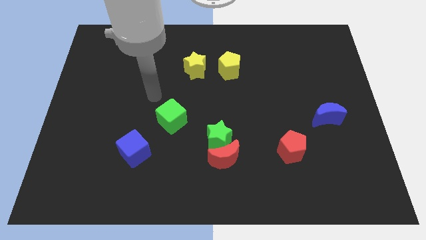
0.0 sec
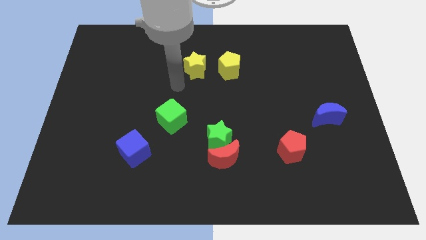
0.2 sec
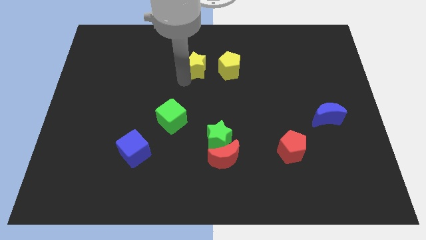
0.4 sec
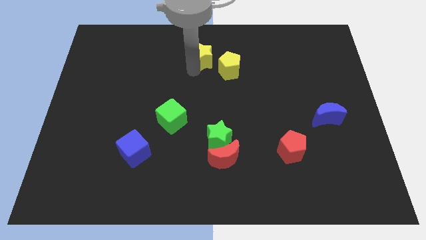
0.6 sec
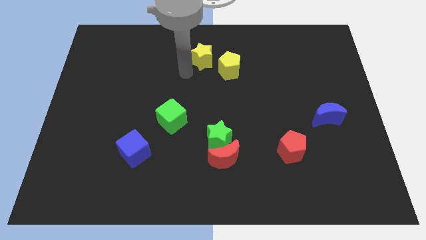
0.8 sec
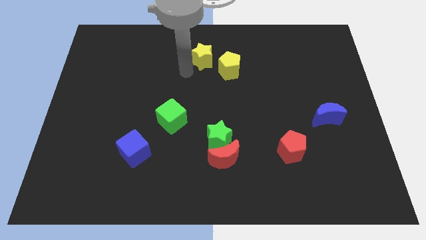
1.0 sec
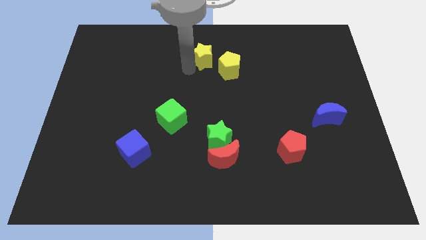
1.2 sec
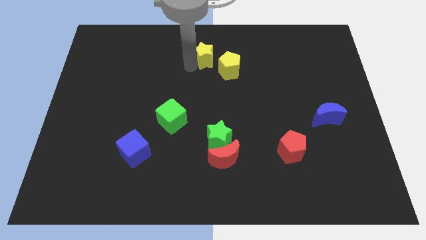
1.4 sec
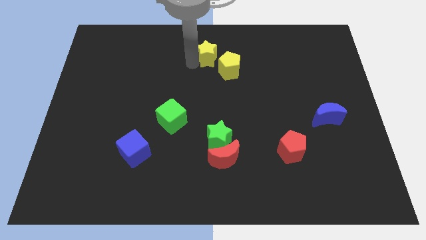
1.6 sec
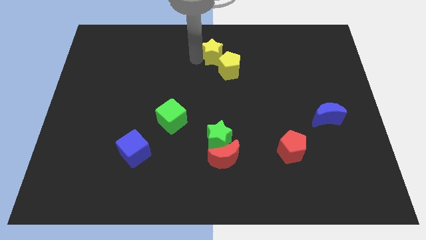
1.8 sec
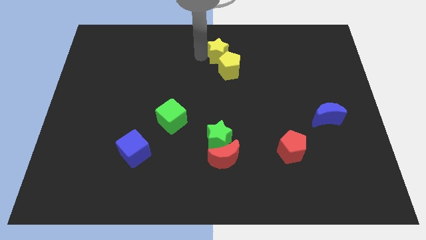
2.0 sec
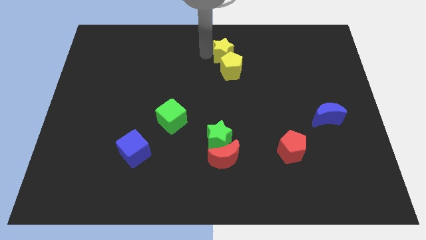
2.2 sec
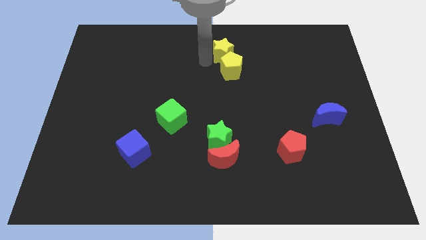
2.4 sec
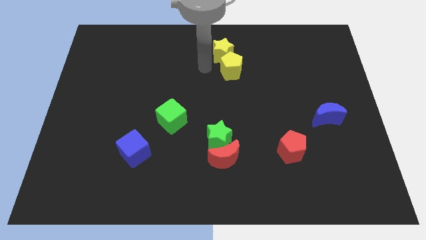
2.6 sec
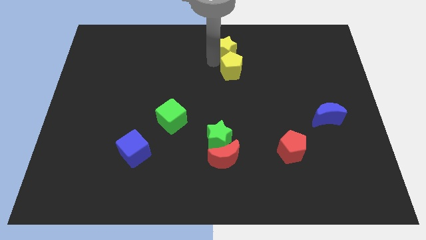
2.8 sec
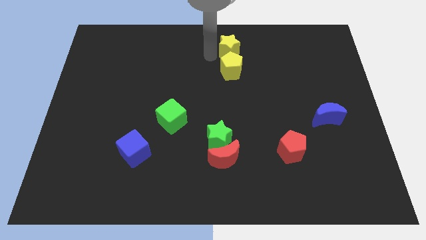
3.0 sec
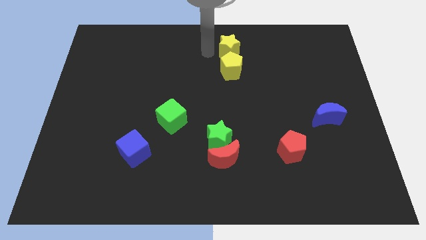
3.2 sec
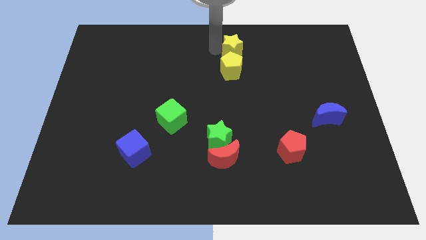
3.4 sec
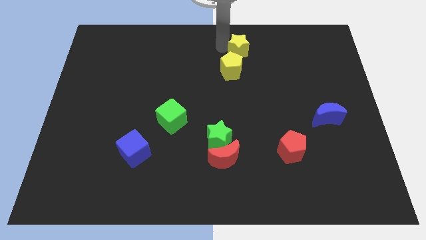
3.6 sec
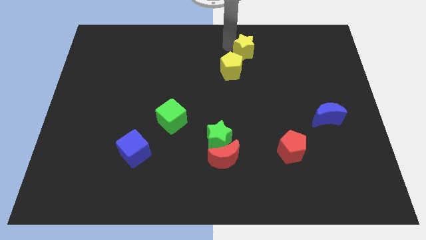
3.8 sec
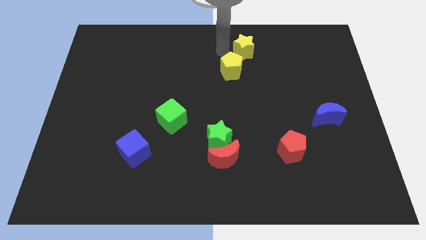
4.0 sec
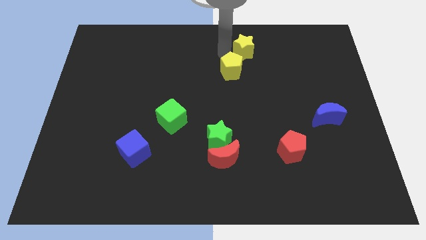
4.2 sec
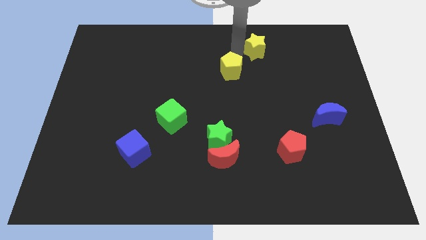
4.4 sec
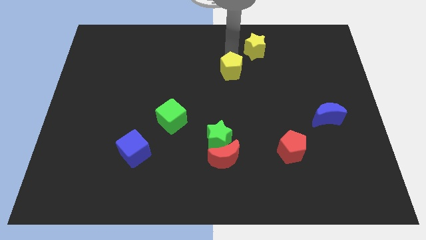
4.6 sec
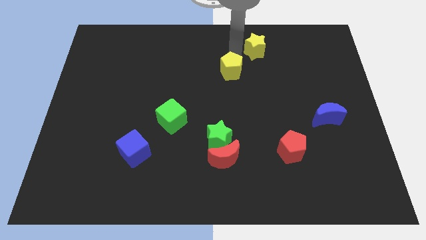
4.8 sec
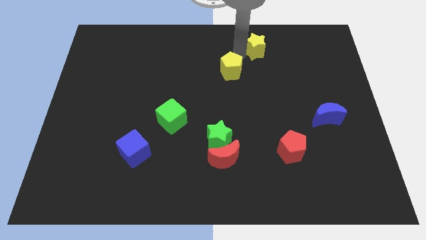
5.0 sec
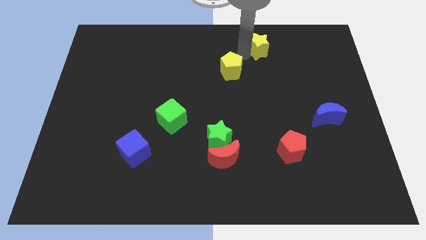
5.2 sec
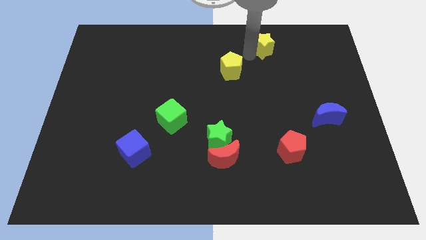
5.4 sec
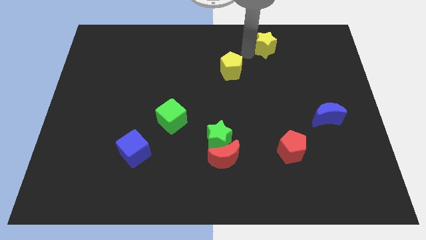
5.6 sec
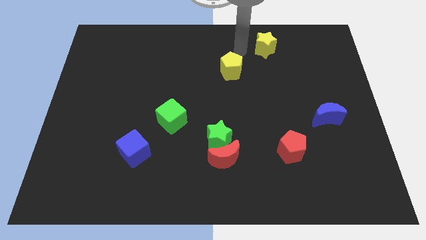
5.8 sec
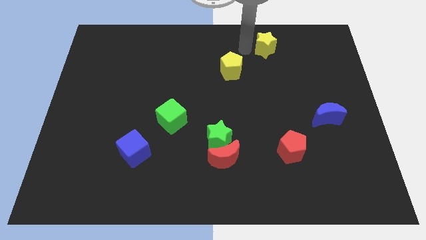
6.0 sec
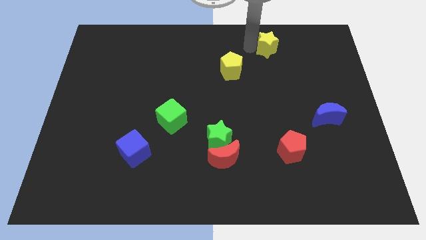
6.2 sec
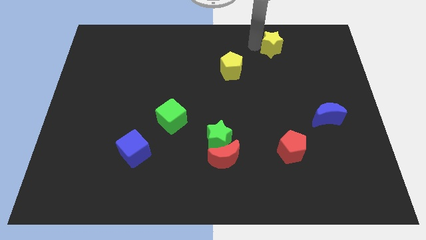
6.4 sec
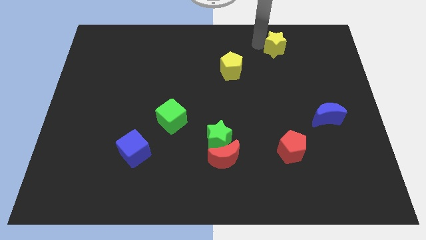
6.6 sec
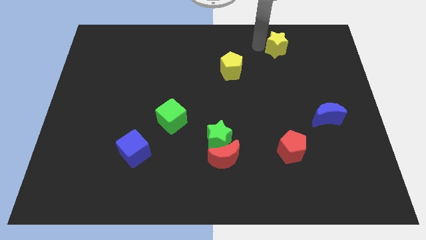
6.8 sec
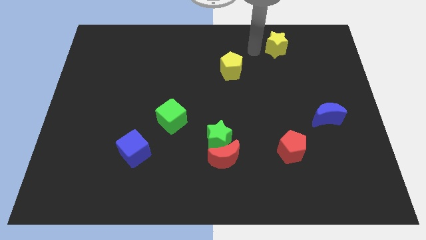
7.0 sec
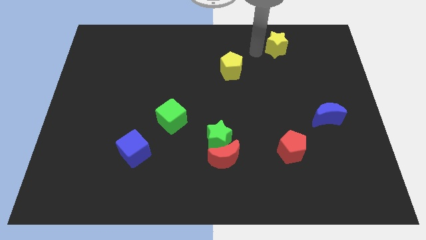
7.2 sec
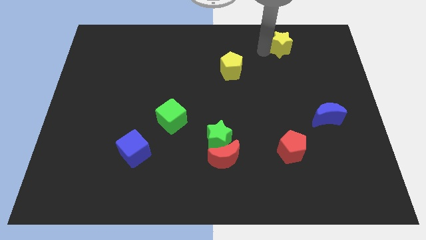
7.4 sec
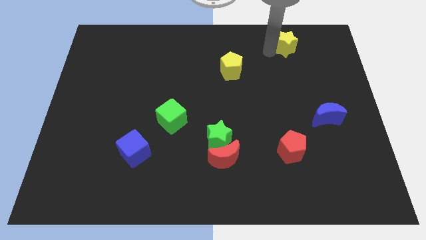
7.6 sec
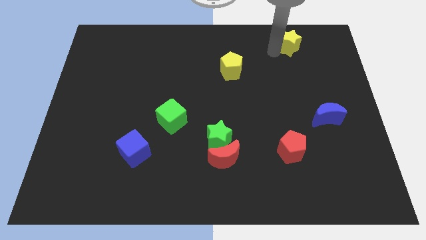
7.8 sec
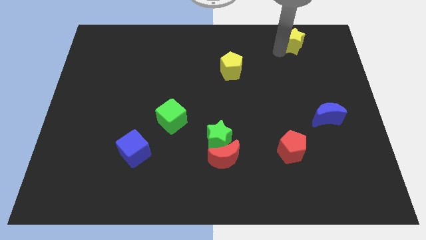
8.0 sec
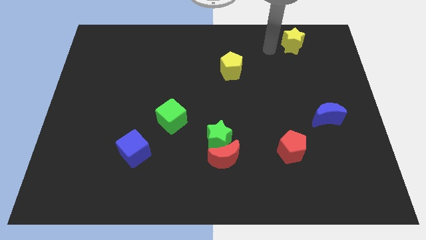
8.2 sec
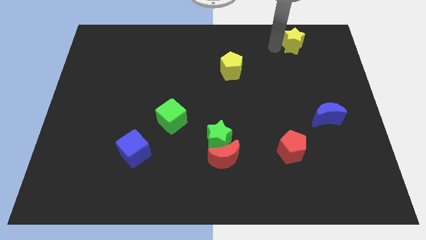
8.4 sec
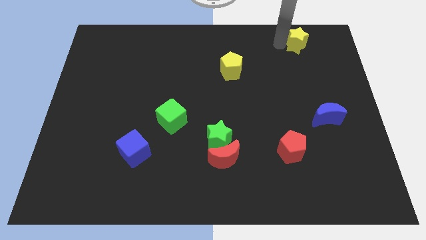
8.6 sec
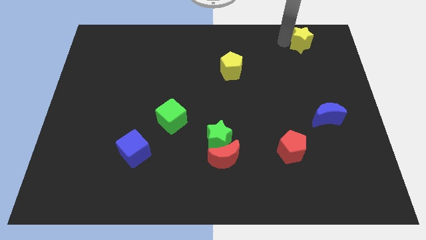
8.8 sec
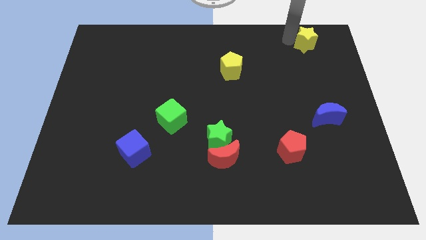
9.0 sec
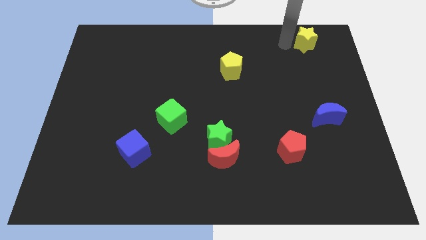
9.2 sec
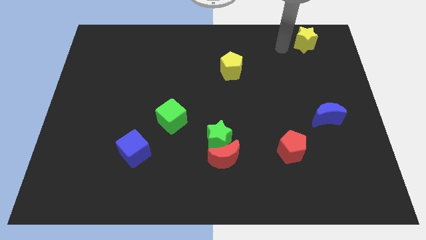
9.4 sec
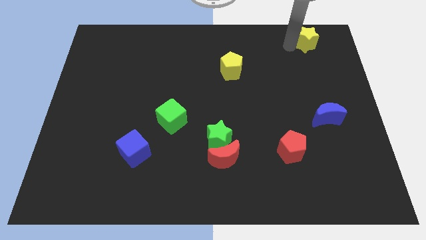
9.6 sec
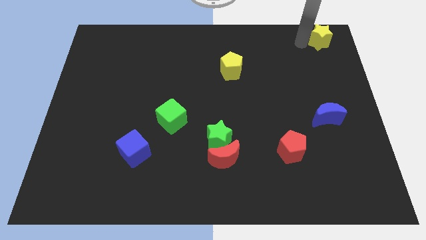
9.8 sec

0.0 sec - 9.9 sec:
slide the yellow star to the upper right corner

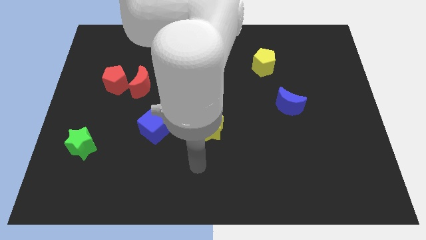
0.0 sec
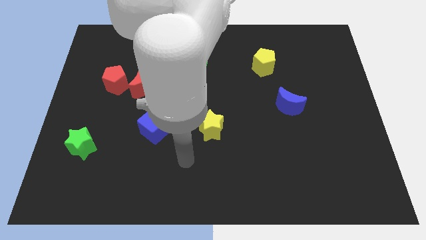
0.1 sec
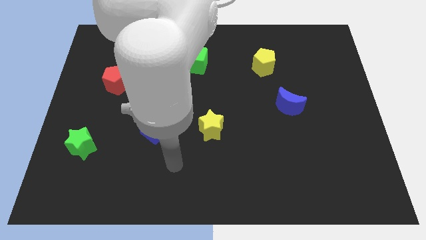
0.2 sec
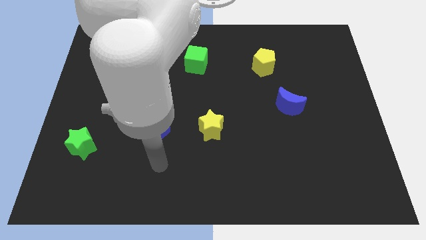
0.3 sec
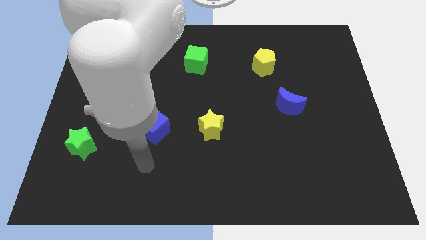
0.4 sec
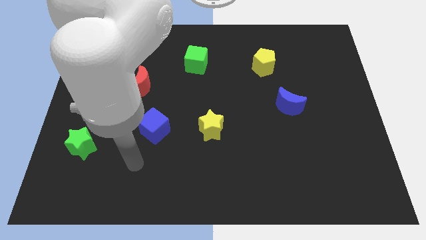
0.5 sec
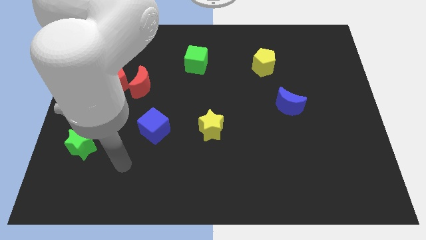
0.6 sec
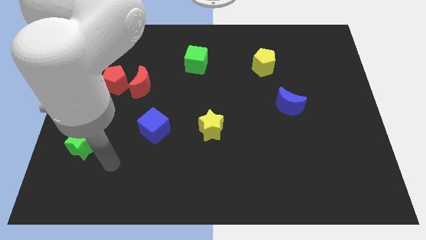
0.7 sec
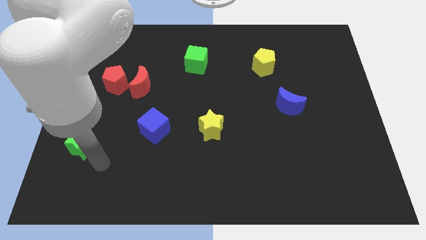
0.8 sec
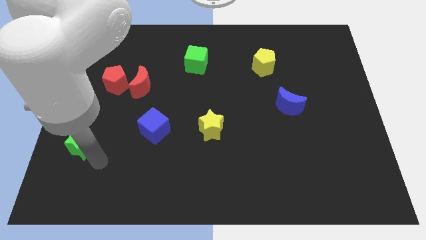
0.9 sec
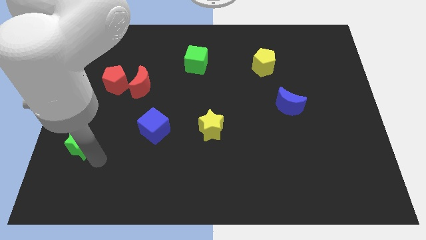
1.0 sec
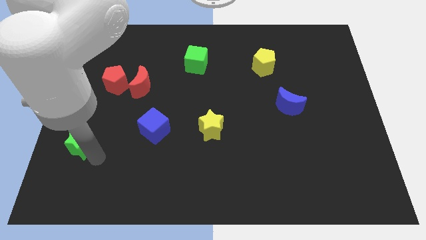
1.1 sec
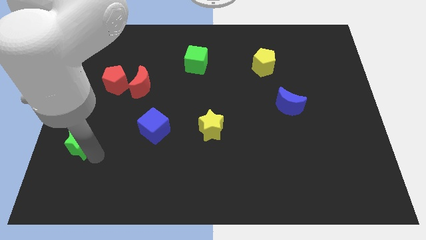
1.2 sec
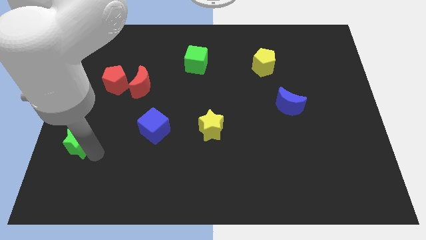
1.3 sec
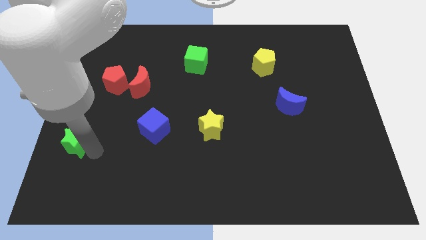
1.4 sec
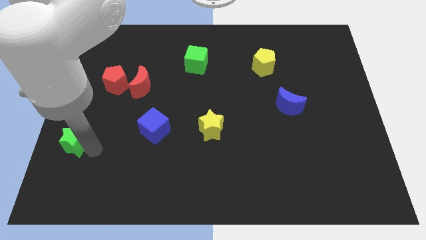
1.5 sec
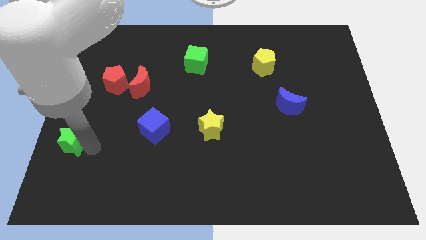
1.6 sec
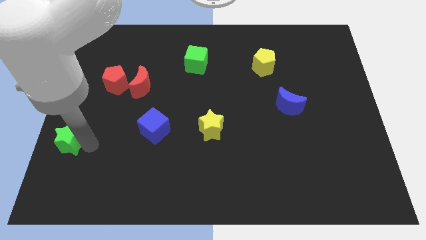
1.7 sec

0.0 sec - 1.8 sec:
move the green star to the left side of the board
